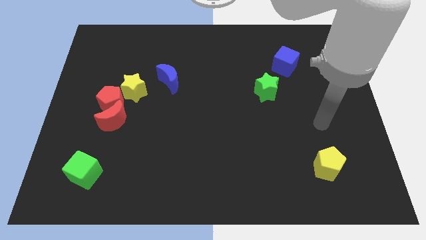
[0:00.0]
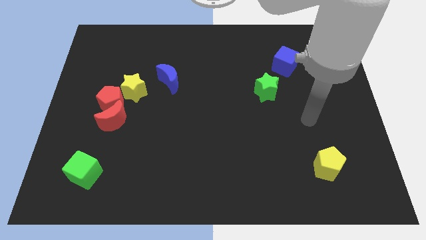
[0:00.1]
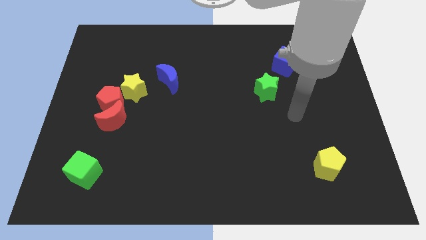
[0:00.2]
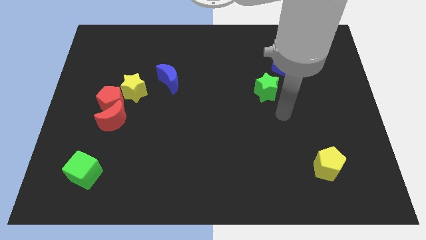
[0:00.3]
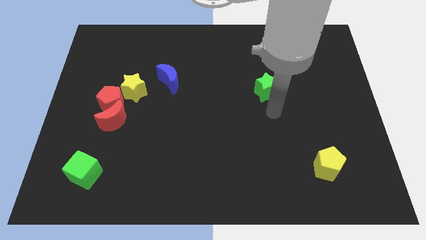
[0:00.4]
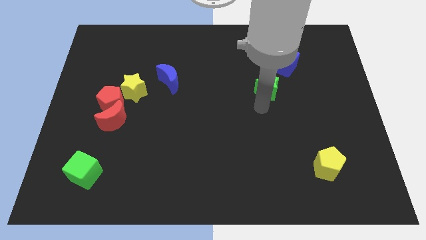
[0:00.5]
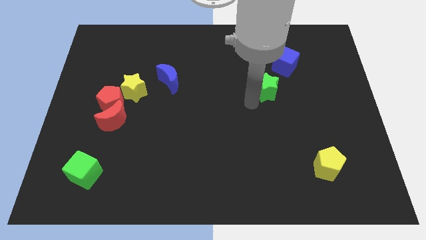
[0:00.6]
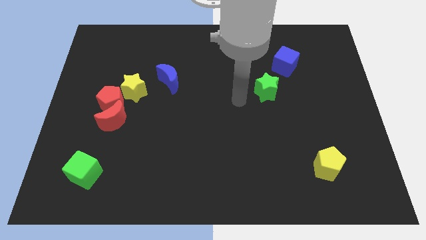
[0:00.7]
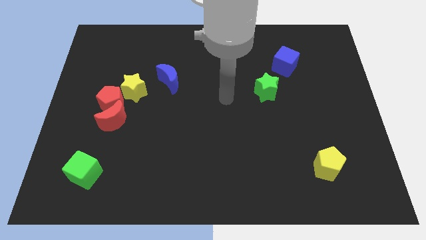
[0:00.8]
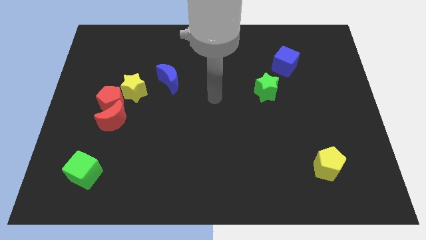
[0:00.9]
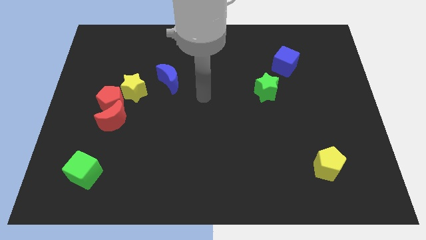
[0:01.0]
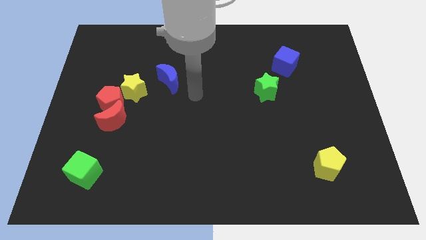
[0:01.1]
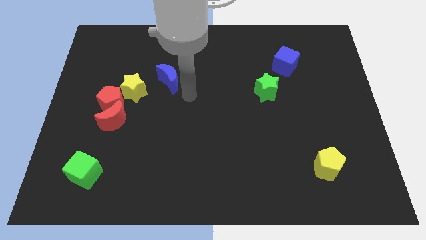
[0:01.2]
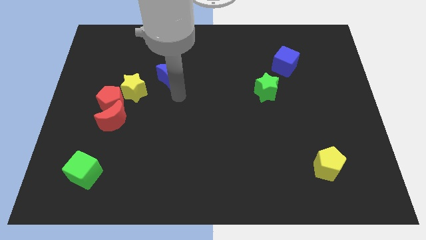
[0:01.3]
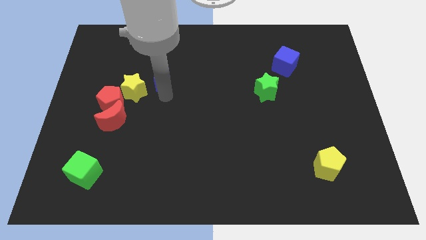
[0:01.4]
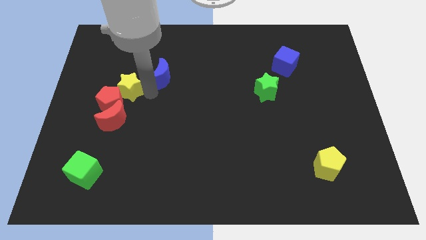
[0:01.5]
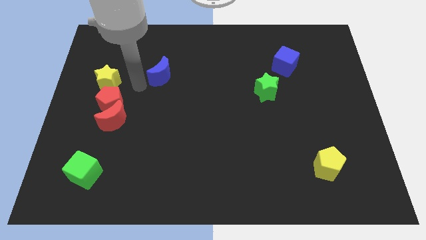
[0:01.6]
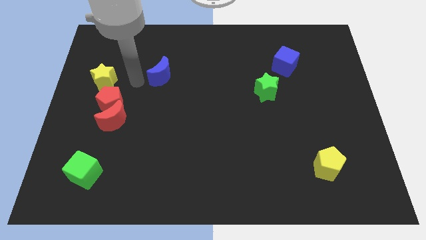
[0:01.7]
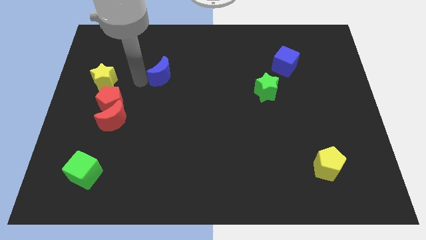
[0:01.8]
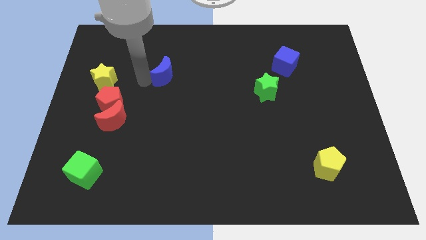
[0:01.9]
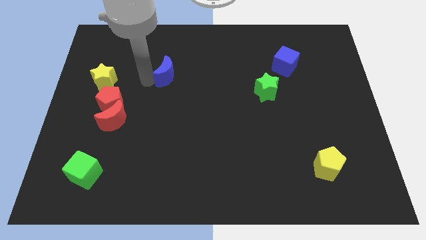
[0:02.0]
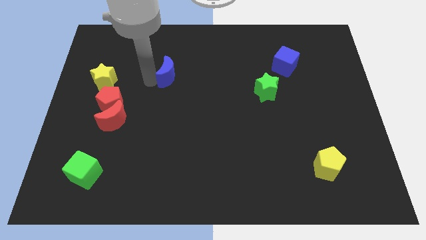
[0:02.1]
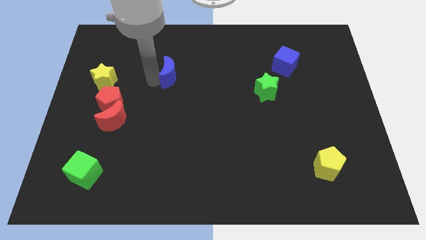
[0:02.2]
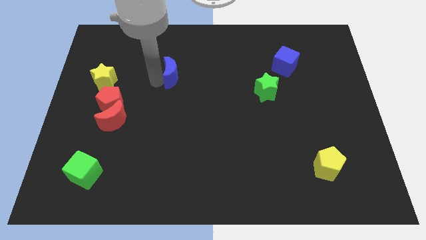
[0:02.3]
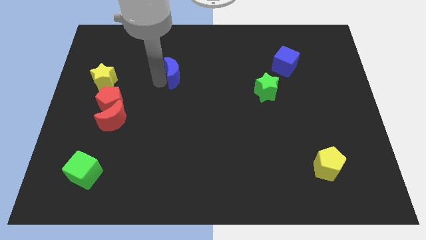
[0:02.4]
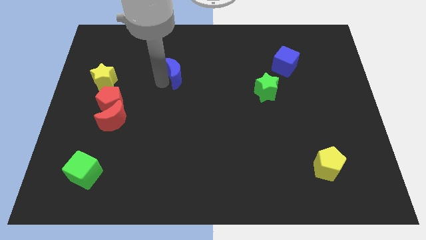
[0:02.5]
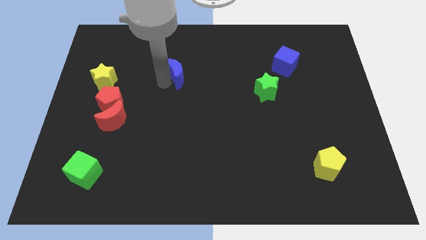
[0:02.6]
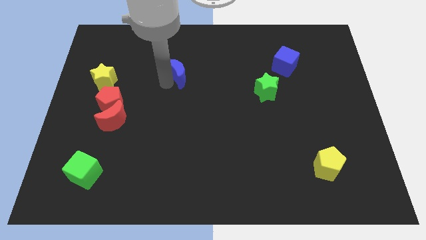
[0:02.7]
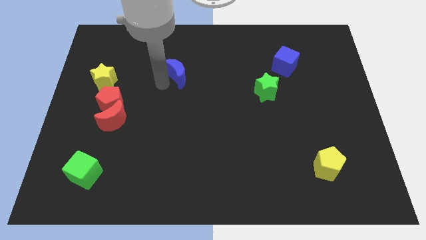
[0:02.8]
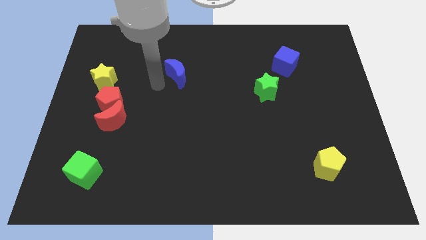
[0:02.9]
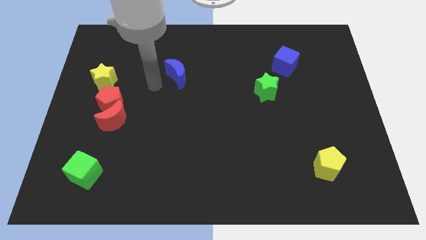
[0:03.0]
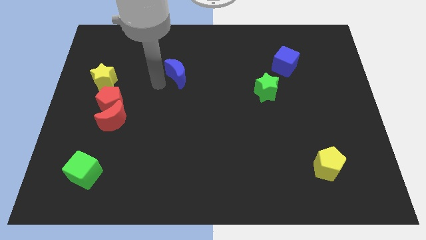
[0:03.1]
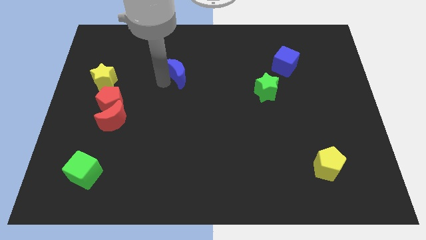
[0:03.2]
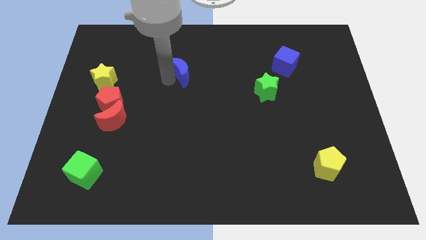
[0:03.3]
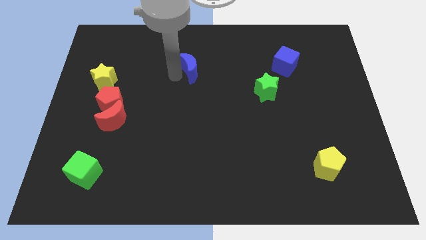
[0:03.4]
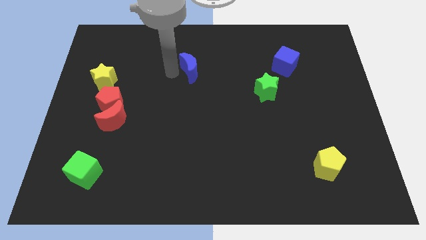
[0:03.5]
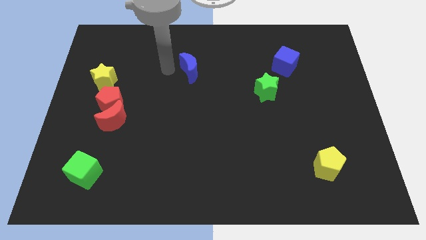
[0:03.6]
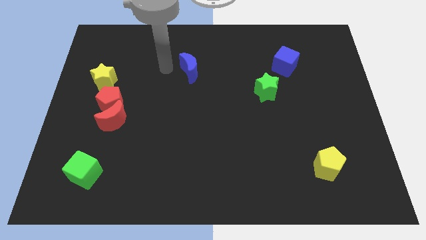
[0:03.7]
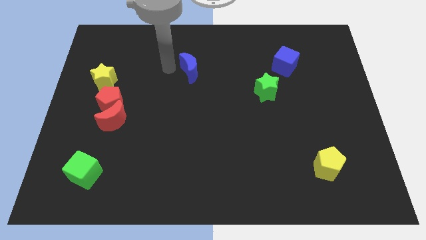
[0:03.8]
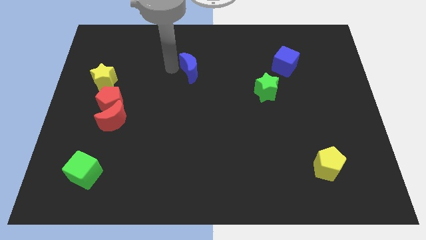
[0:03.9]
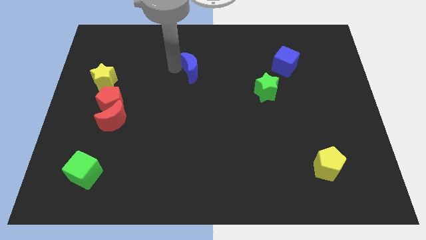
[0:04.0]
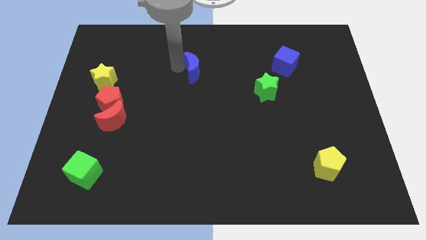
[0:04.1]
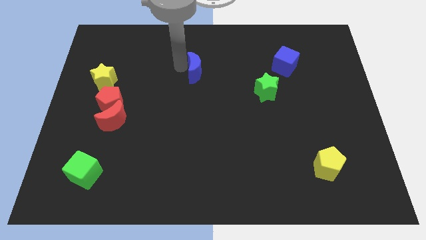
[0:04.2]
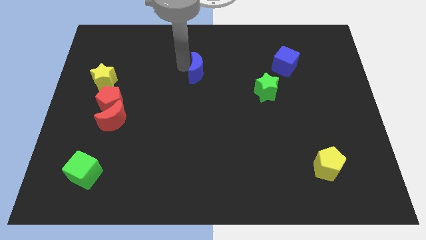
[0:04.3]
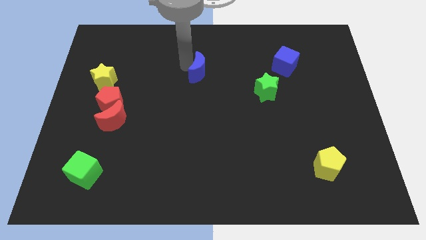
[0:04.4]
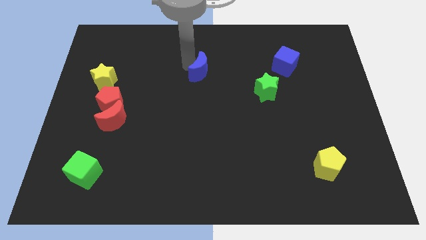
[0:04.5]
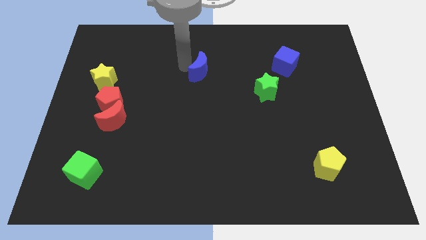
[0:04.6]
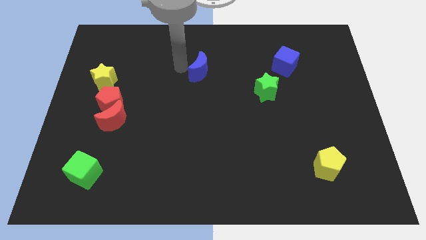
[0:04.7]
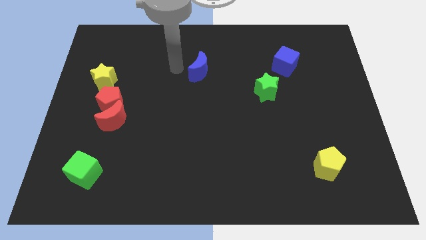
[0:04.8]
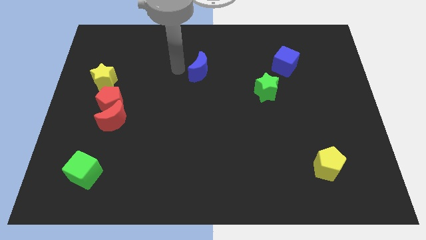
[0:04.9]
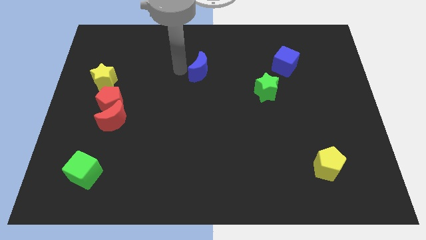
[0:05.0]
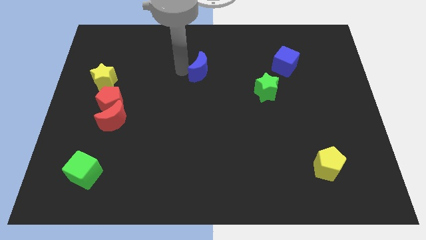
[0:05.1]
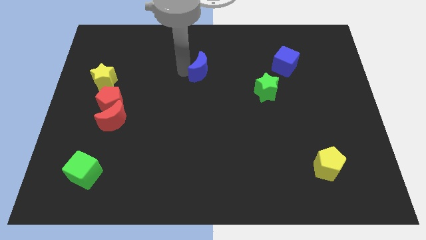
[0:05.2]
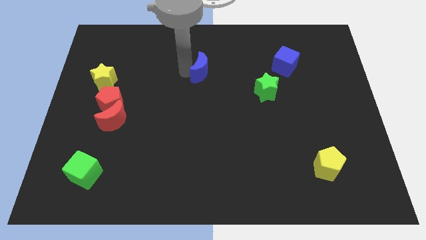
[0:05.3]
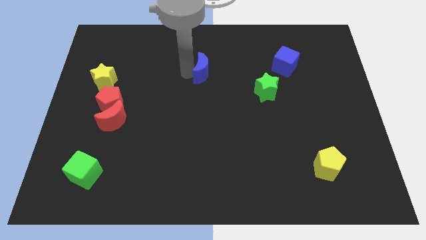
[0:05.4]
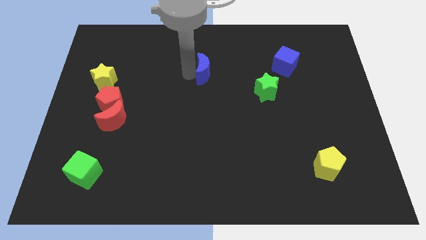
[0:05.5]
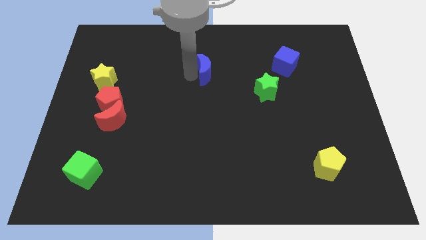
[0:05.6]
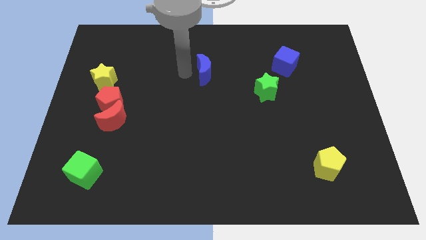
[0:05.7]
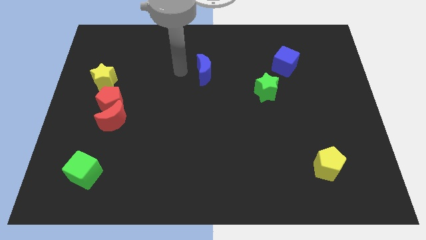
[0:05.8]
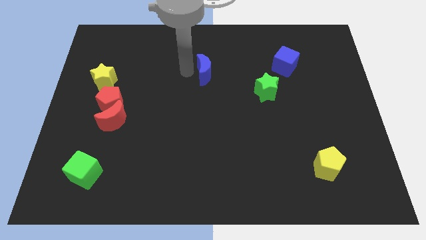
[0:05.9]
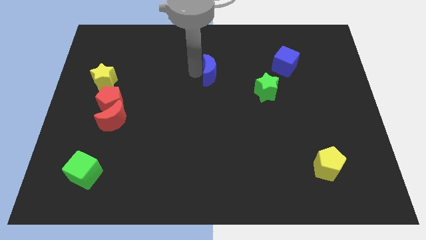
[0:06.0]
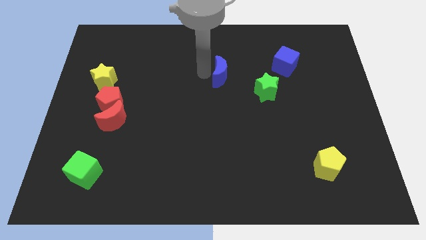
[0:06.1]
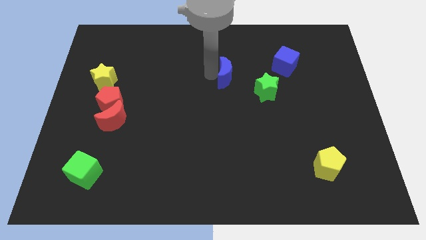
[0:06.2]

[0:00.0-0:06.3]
slide the blue moon to the top left side of the green star

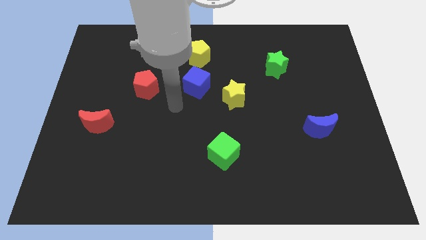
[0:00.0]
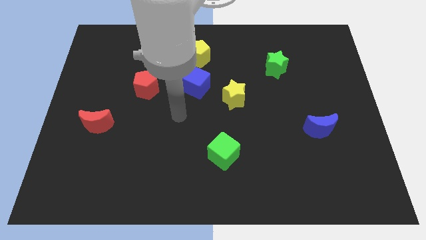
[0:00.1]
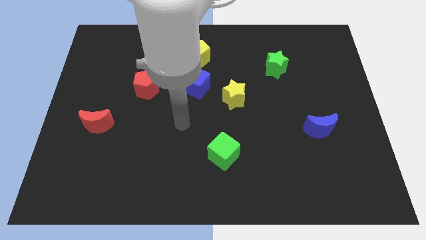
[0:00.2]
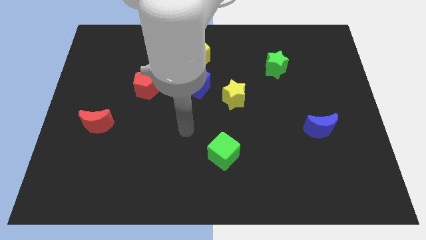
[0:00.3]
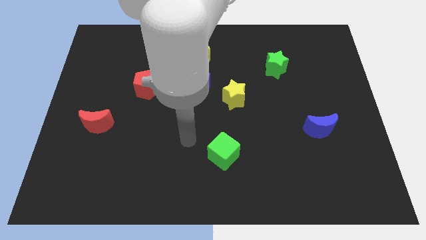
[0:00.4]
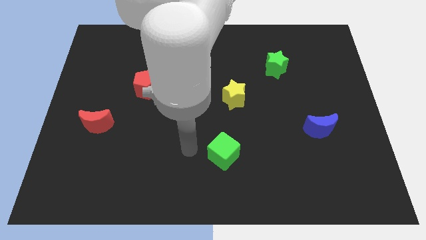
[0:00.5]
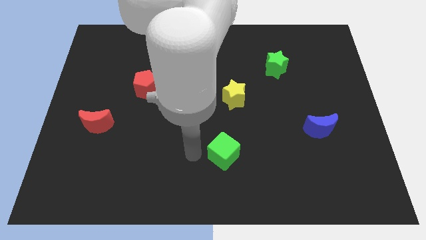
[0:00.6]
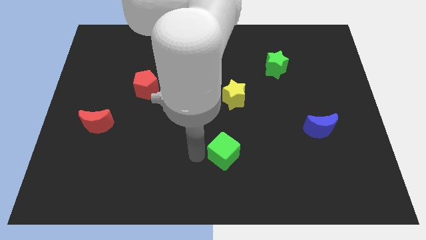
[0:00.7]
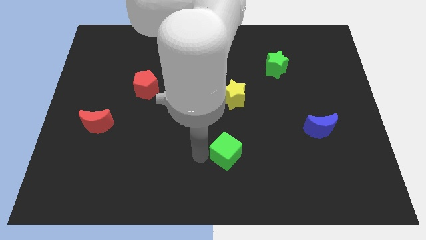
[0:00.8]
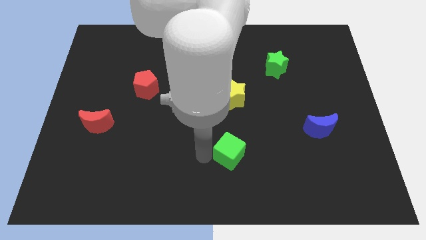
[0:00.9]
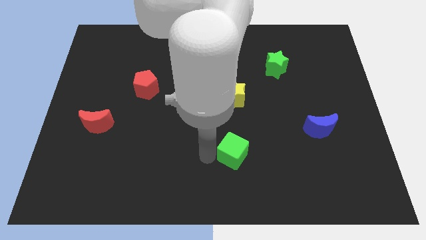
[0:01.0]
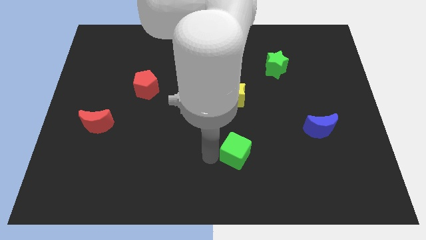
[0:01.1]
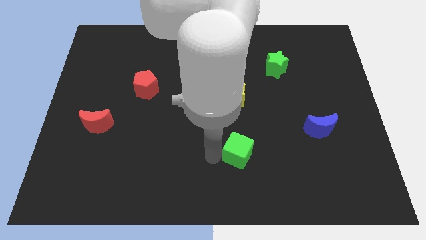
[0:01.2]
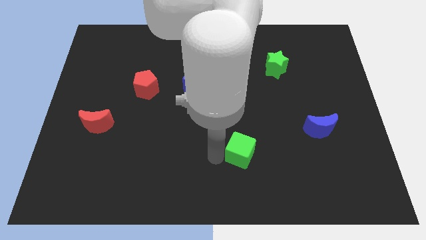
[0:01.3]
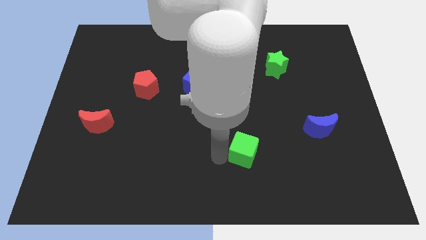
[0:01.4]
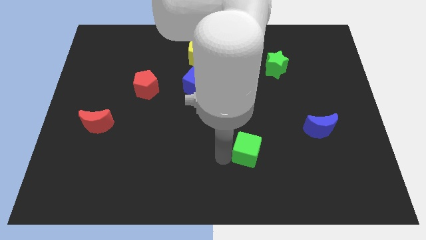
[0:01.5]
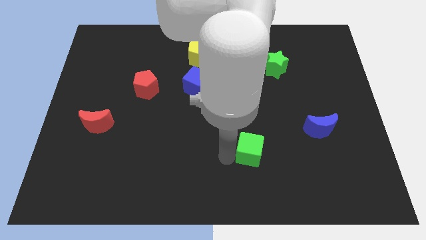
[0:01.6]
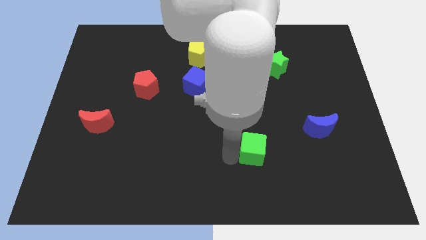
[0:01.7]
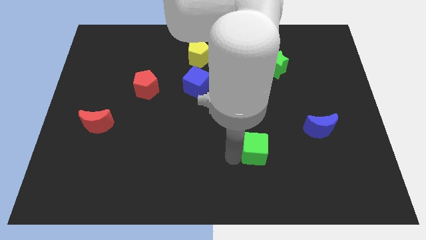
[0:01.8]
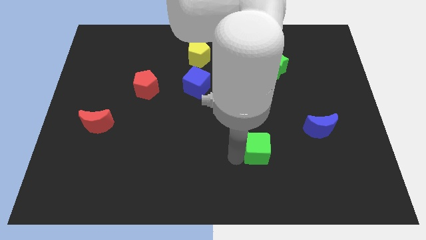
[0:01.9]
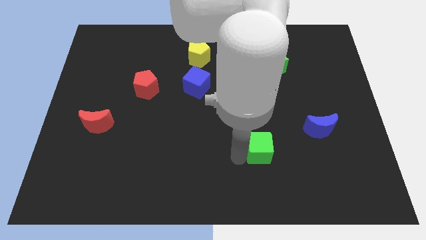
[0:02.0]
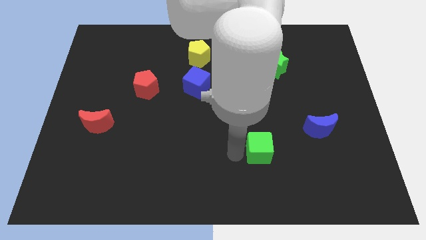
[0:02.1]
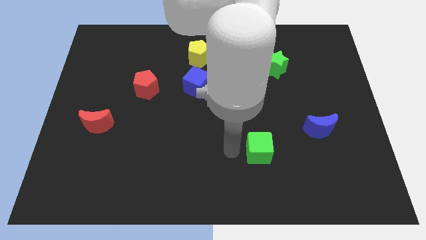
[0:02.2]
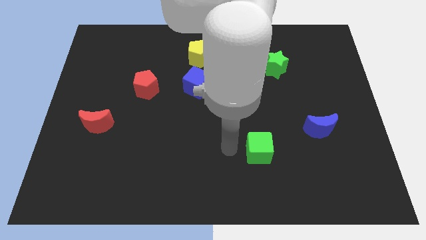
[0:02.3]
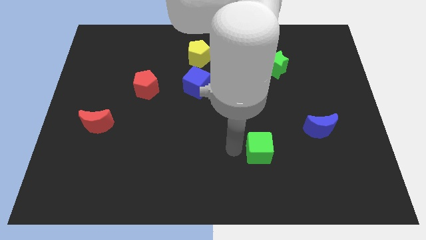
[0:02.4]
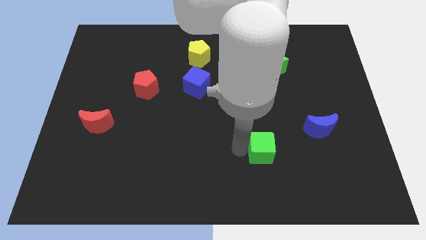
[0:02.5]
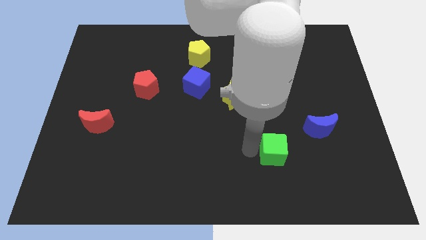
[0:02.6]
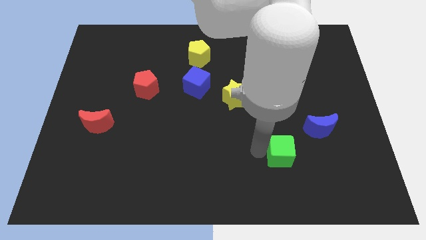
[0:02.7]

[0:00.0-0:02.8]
slide the green cube to the bottom left side of the blue moon
